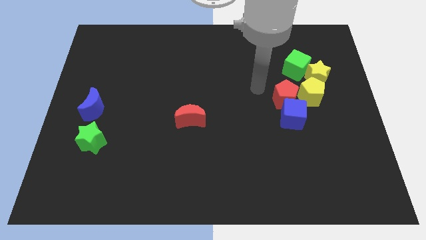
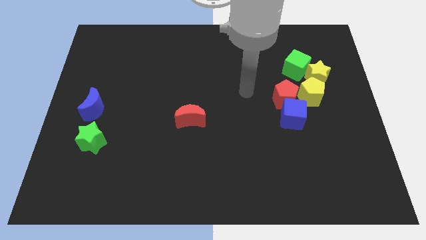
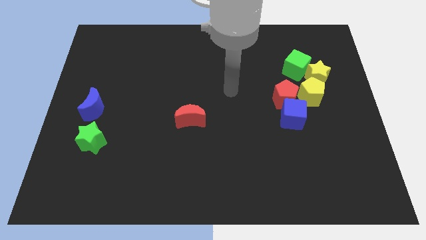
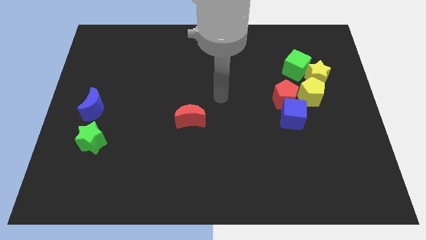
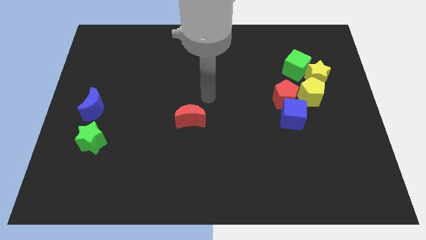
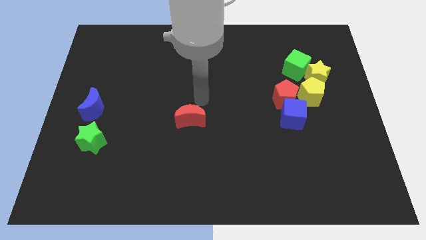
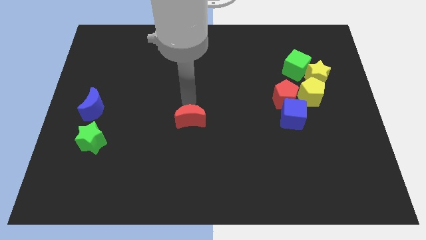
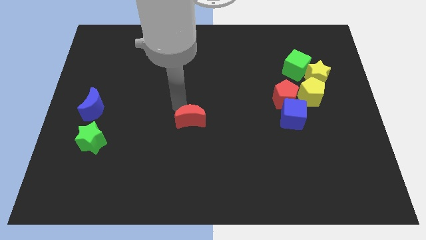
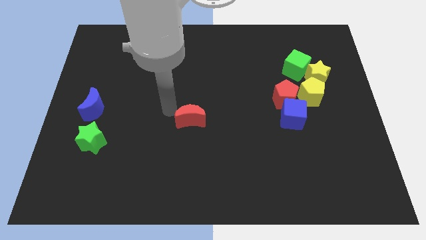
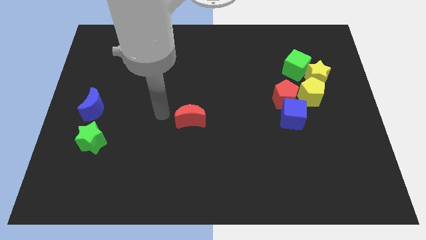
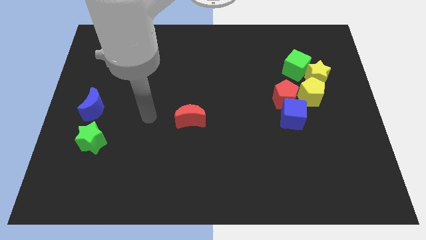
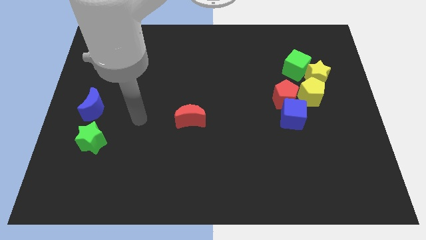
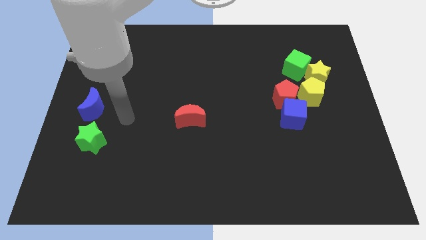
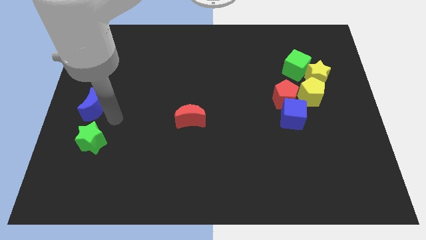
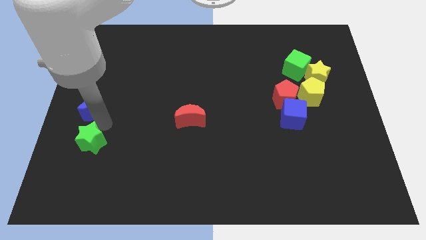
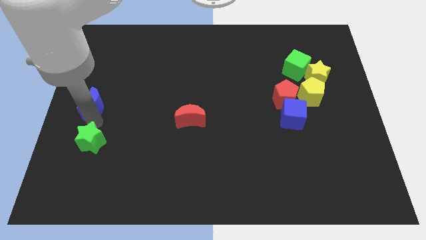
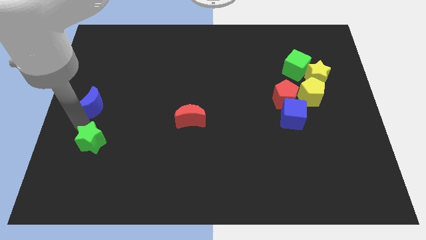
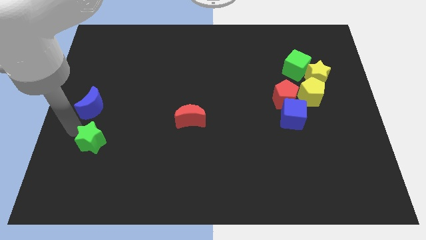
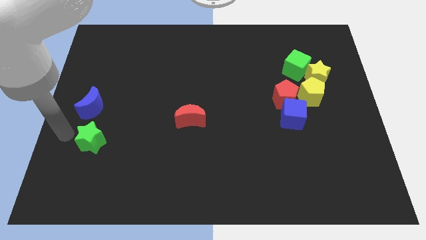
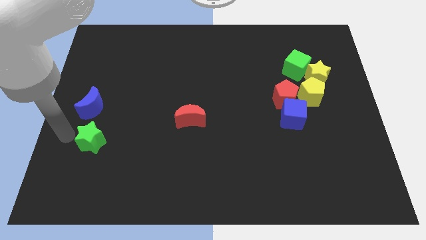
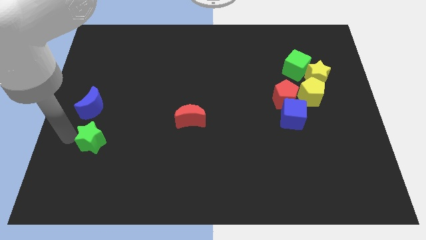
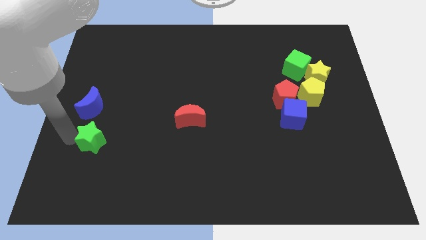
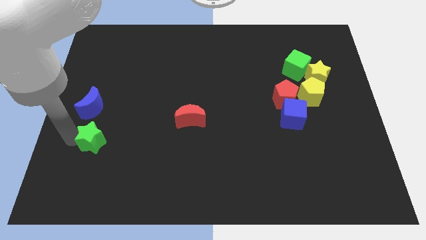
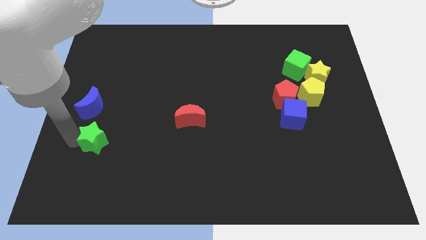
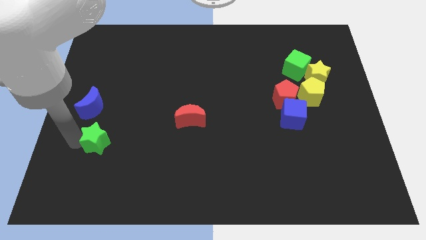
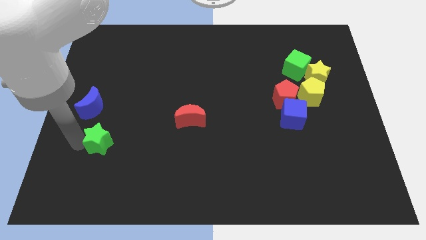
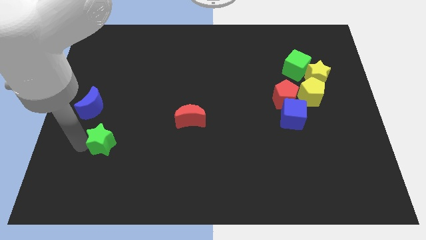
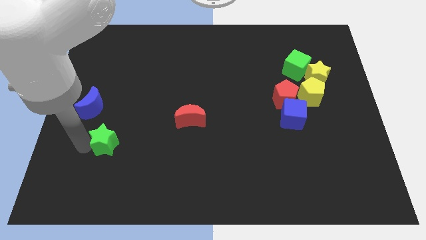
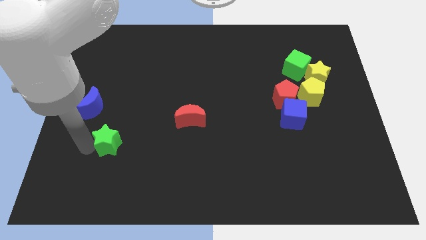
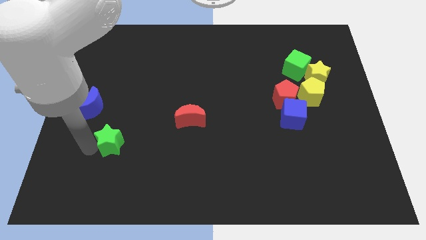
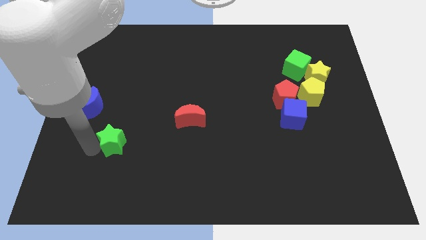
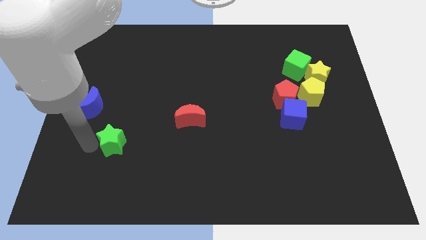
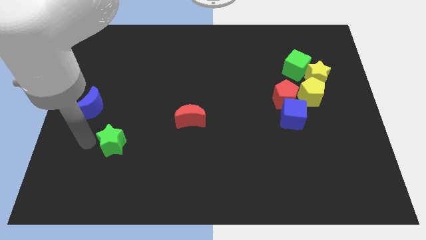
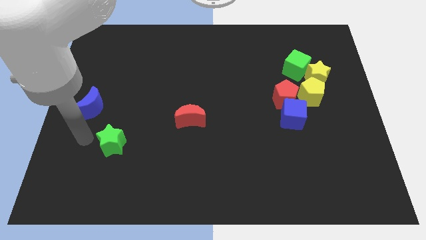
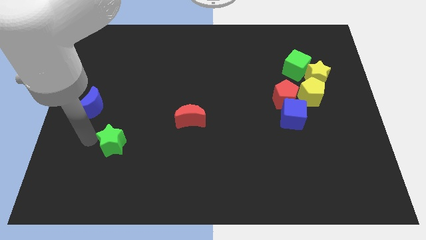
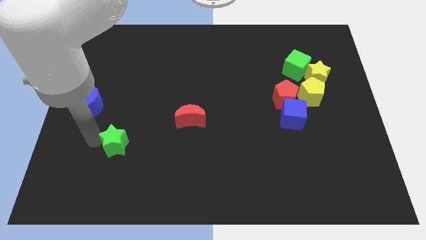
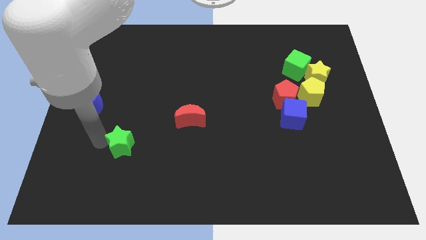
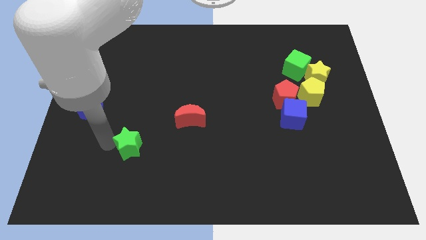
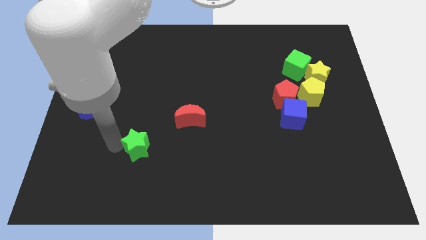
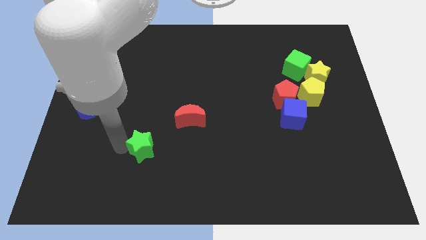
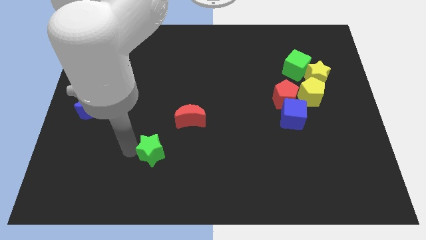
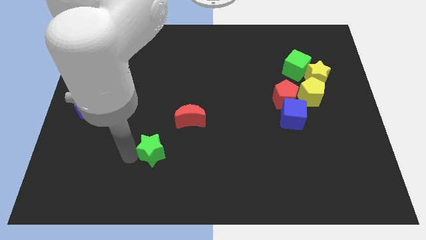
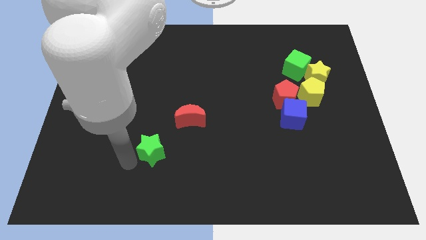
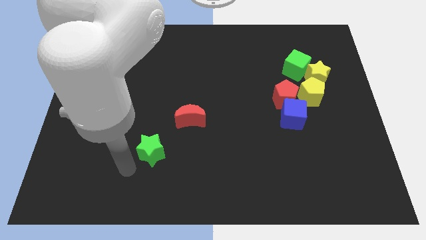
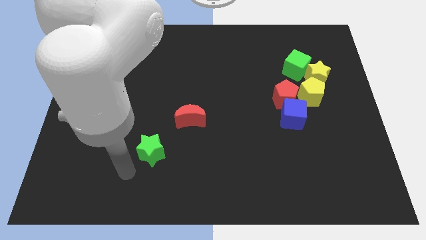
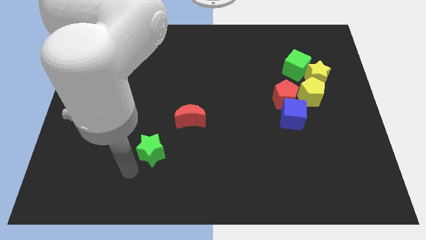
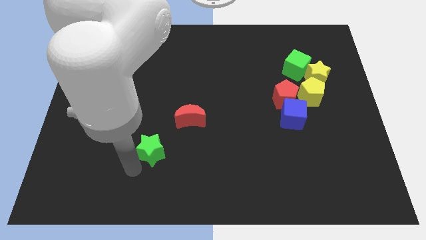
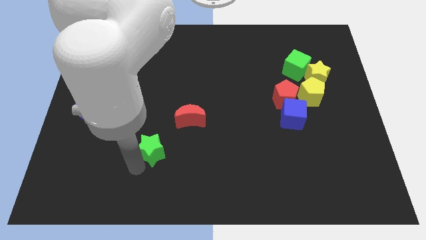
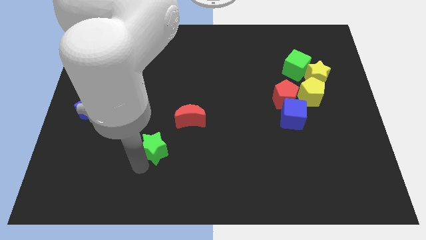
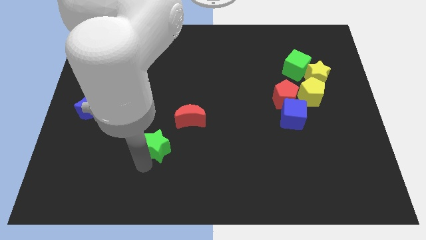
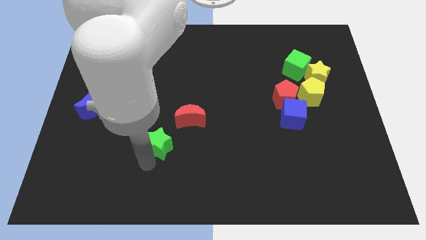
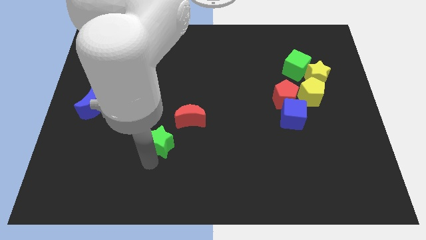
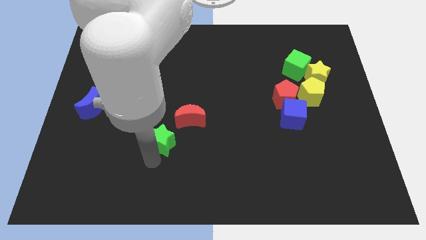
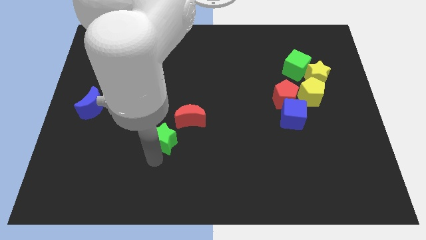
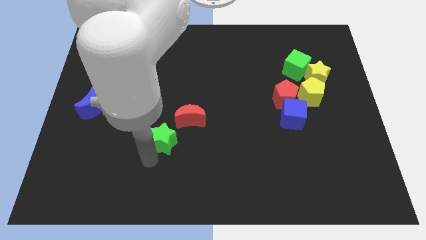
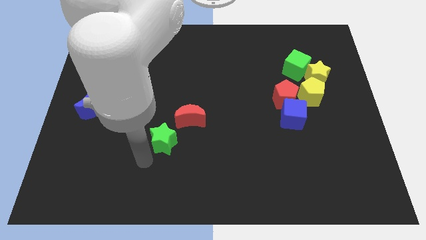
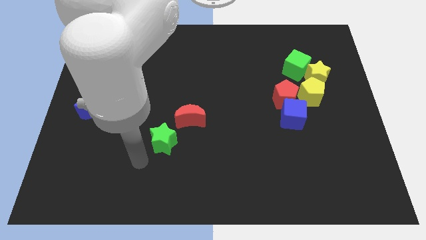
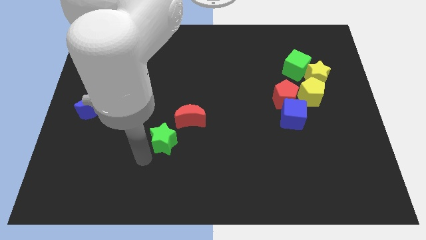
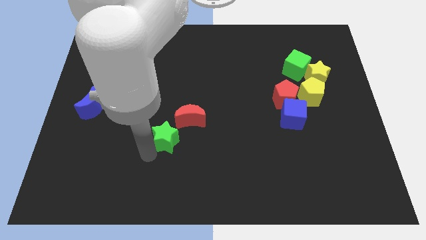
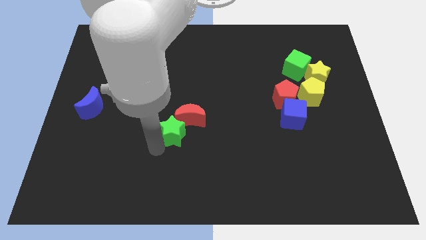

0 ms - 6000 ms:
push the green star to the red moon

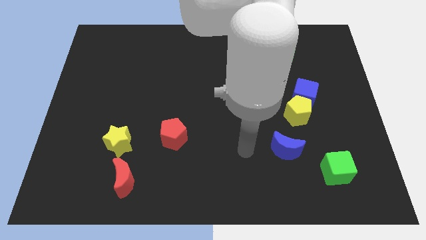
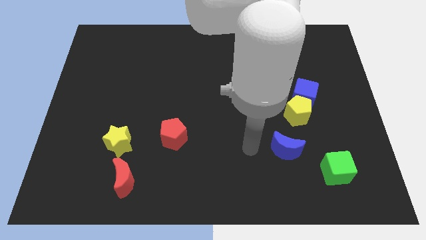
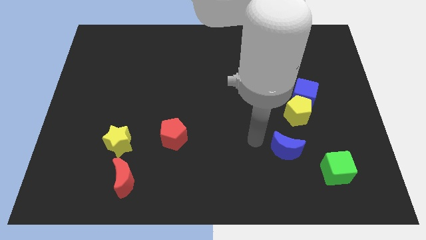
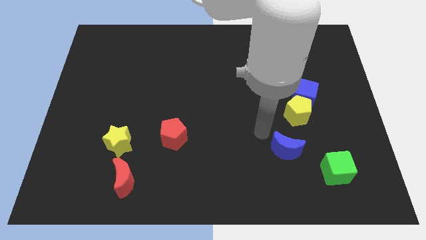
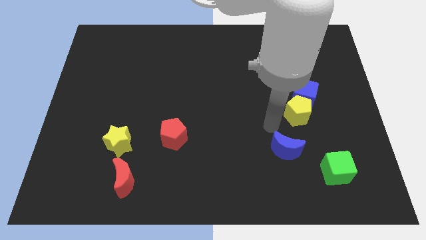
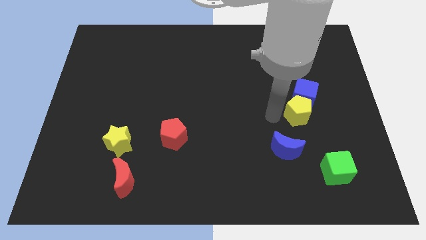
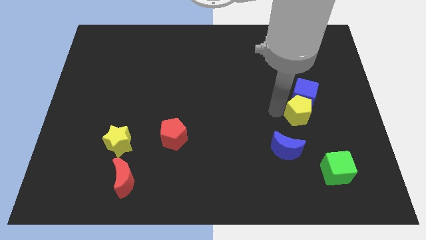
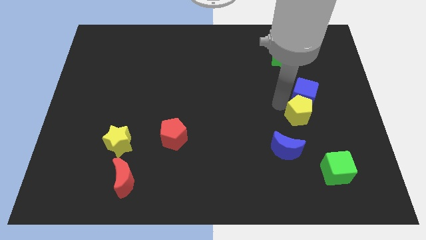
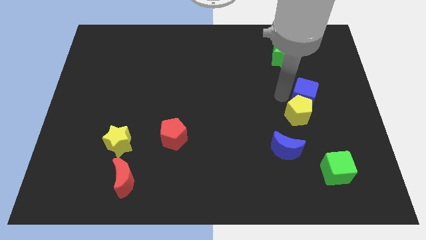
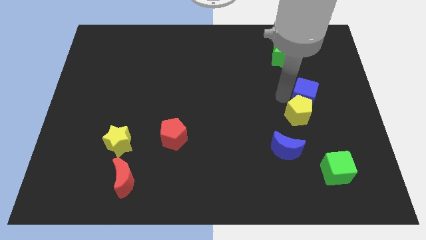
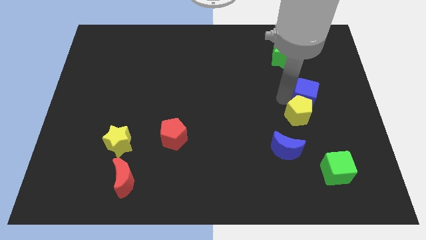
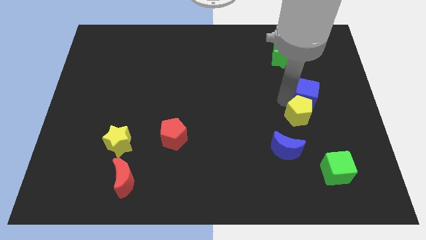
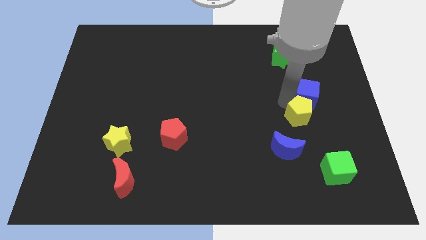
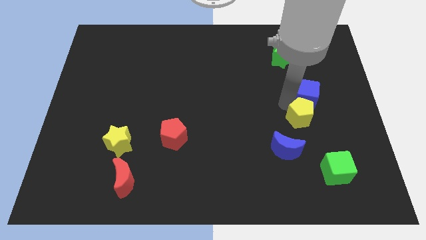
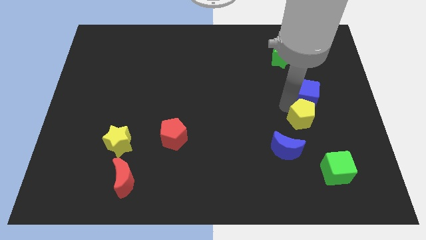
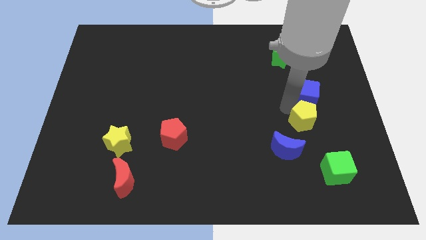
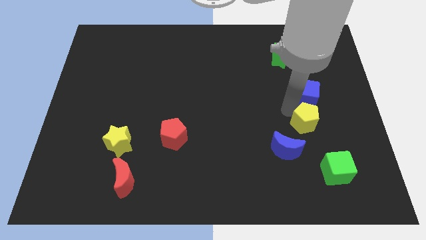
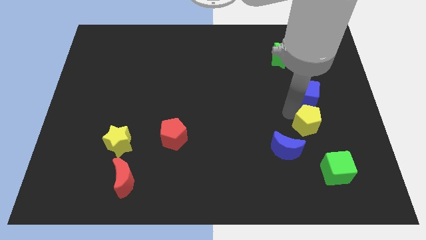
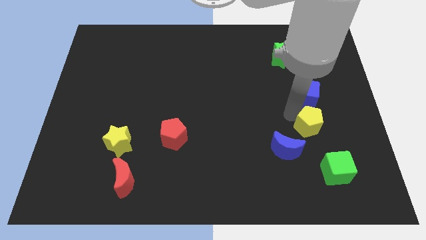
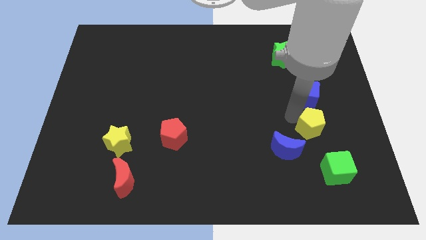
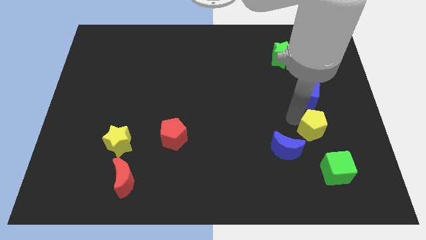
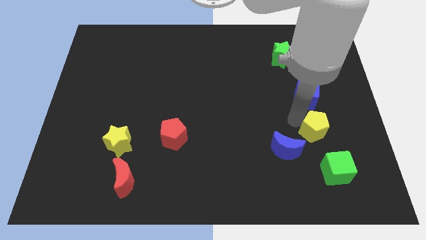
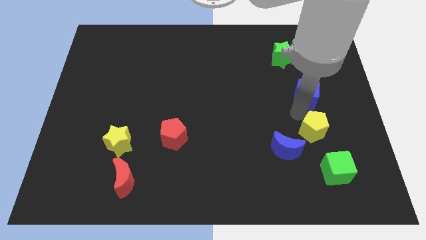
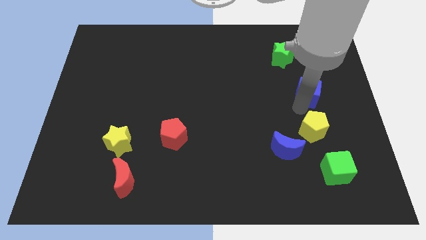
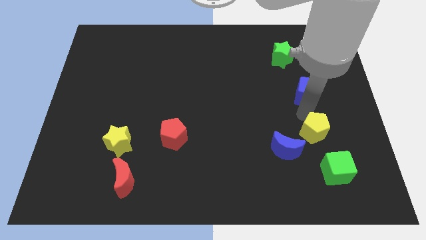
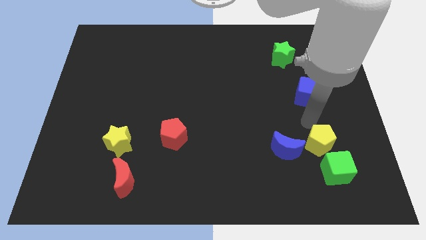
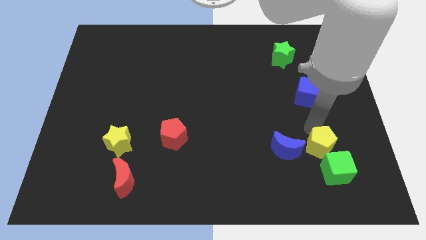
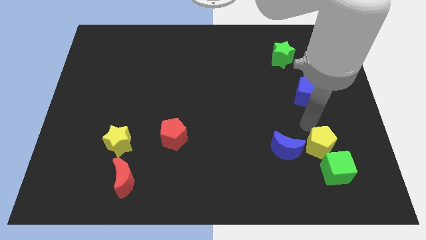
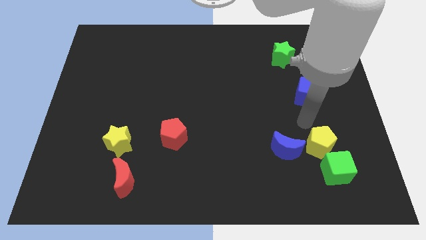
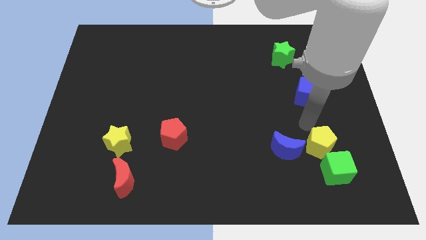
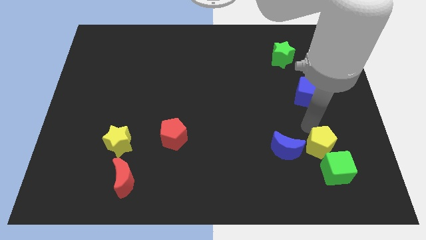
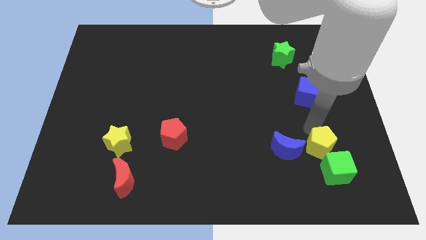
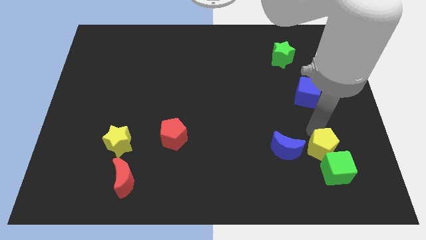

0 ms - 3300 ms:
move the yellow pentagon towards the green cube
